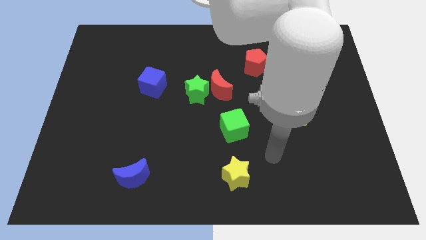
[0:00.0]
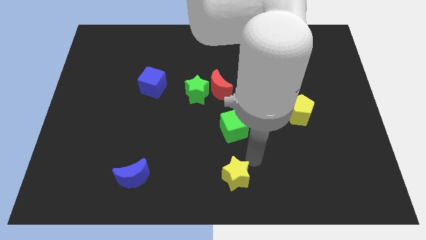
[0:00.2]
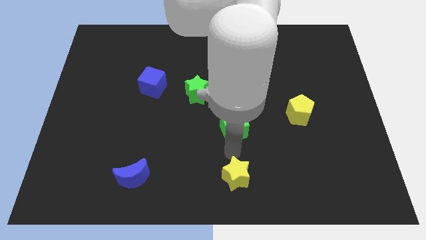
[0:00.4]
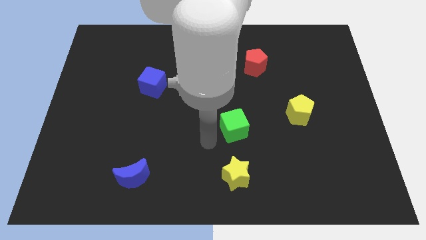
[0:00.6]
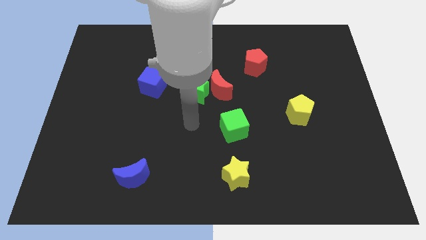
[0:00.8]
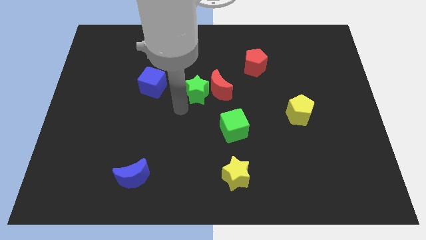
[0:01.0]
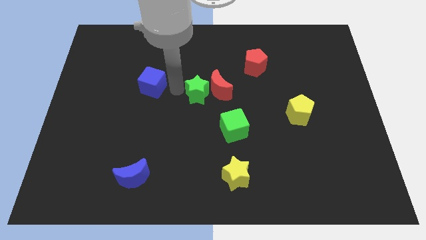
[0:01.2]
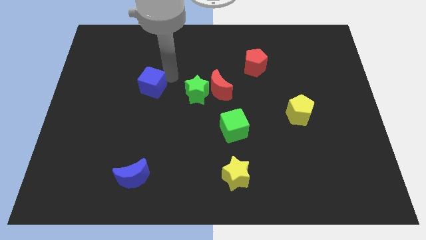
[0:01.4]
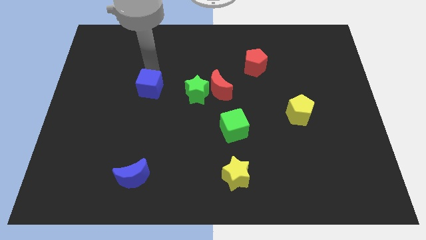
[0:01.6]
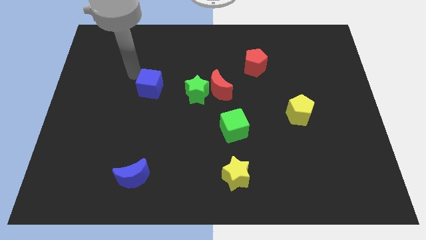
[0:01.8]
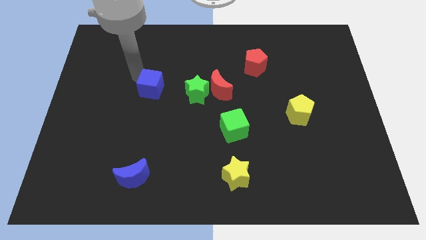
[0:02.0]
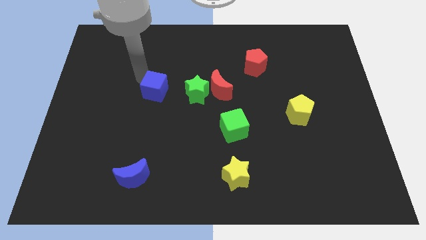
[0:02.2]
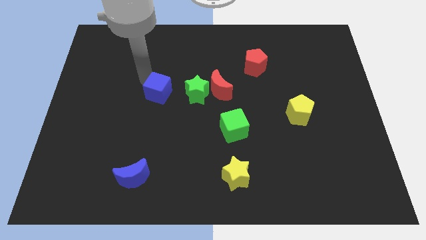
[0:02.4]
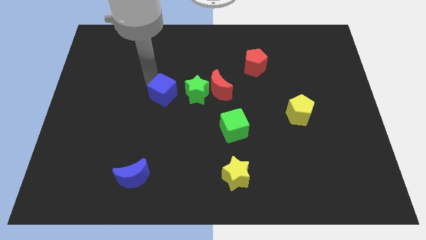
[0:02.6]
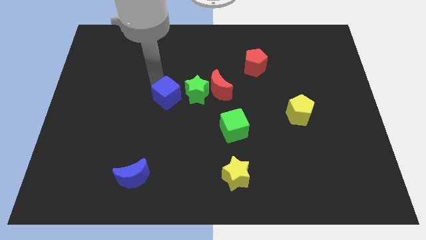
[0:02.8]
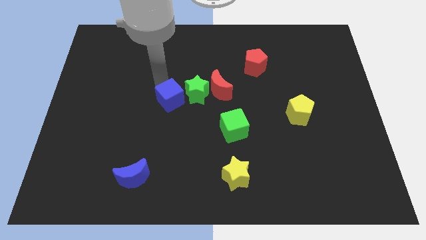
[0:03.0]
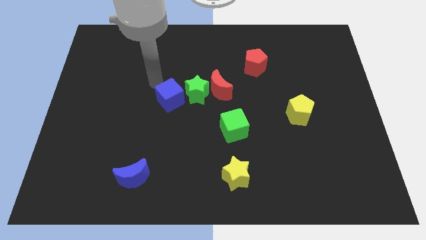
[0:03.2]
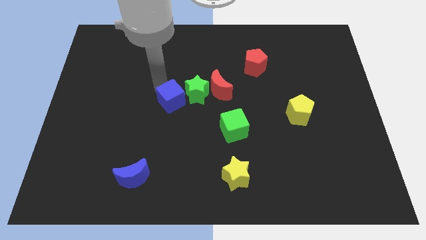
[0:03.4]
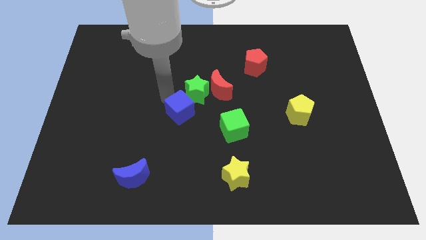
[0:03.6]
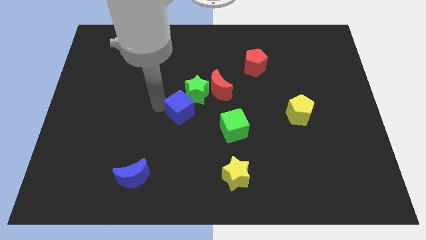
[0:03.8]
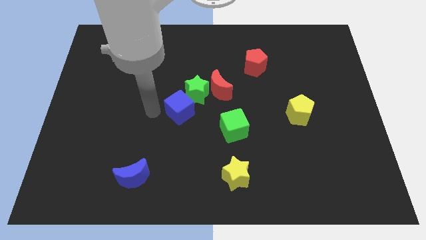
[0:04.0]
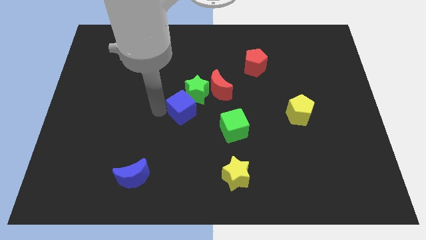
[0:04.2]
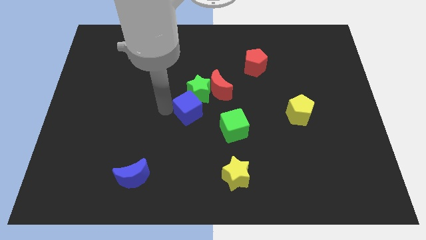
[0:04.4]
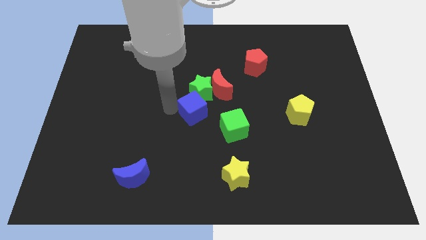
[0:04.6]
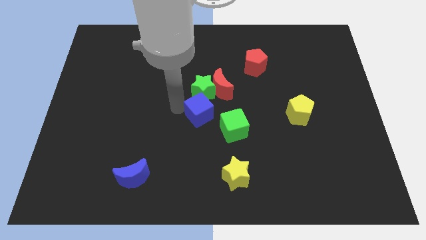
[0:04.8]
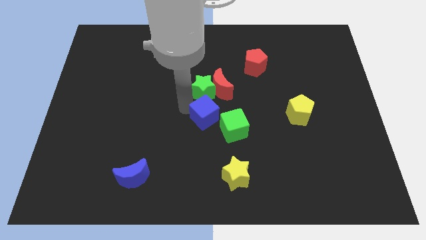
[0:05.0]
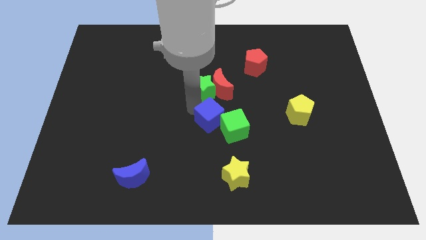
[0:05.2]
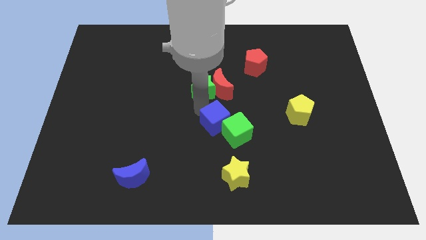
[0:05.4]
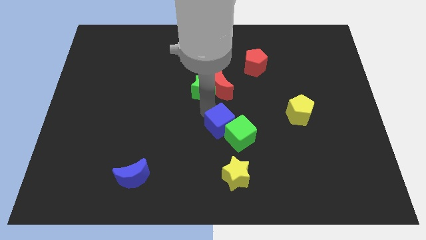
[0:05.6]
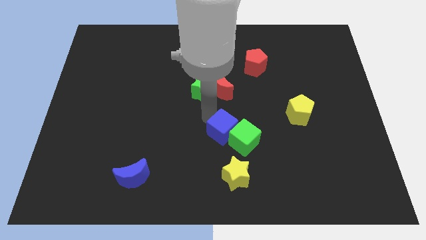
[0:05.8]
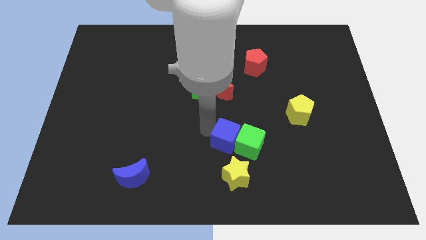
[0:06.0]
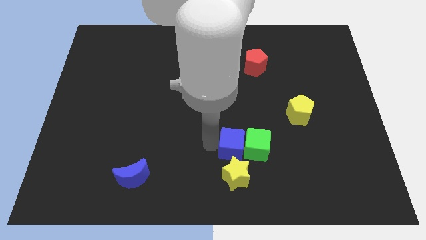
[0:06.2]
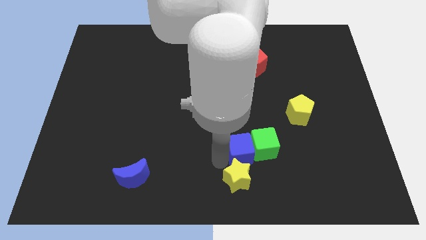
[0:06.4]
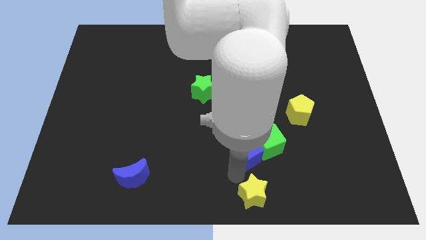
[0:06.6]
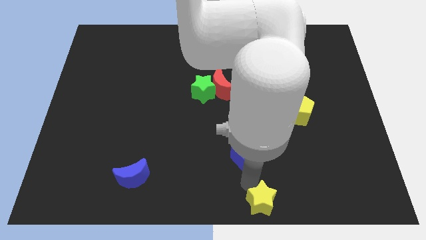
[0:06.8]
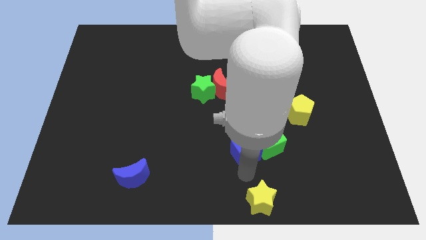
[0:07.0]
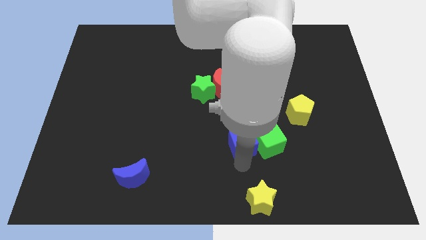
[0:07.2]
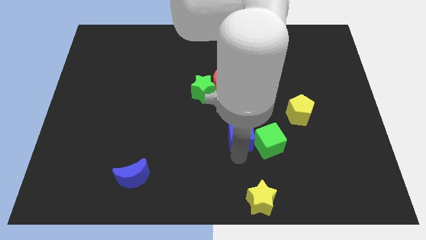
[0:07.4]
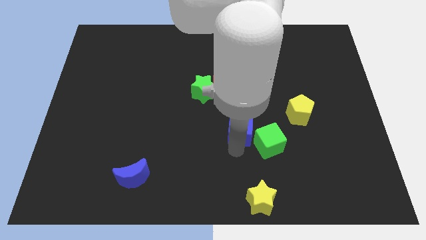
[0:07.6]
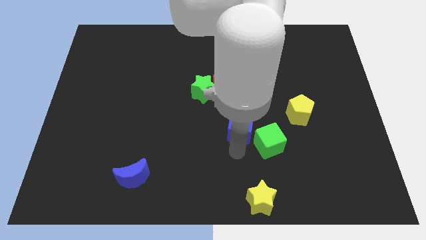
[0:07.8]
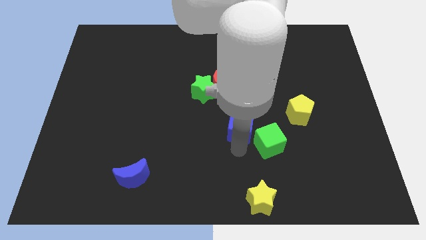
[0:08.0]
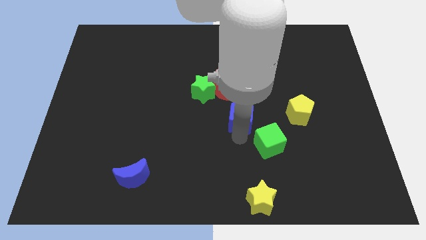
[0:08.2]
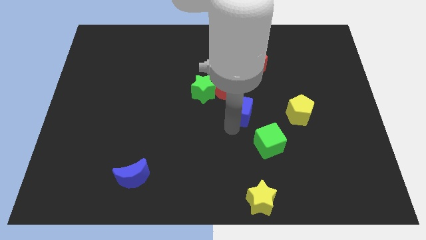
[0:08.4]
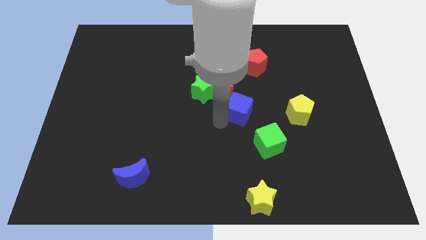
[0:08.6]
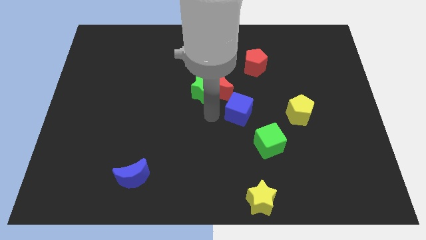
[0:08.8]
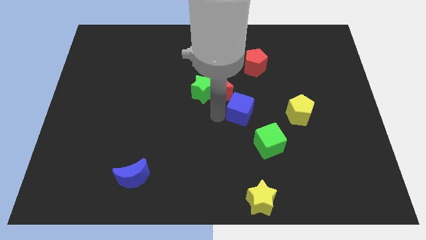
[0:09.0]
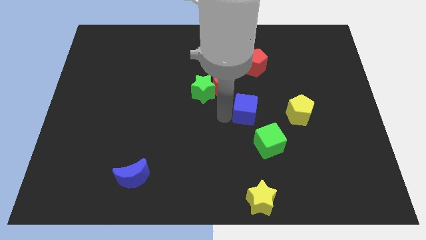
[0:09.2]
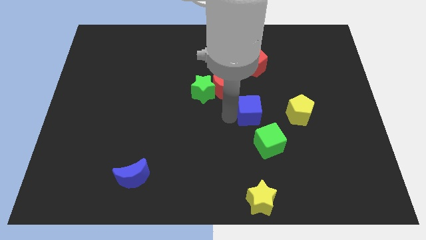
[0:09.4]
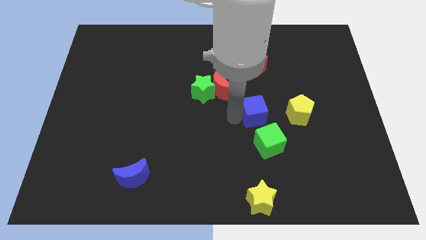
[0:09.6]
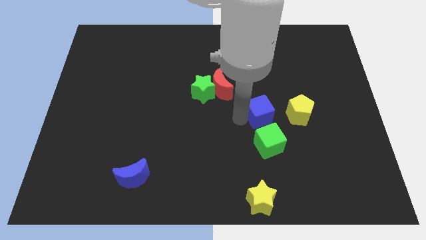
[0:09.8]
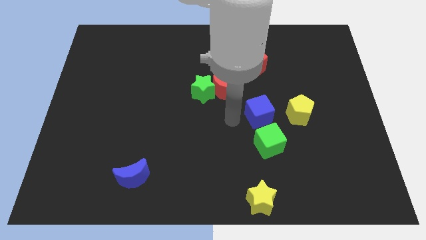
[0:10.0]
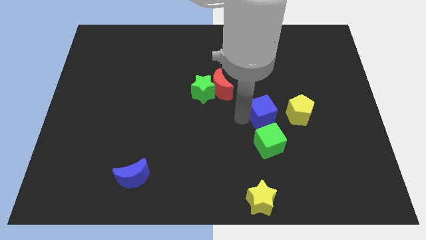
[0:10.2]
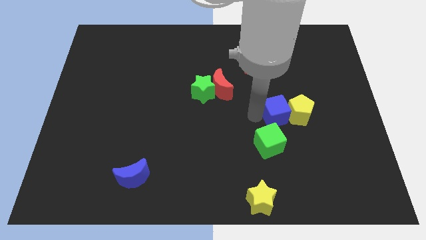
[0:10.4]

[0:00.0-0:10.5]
slide the blue cube next to the yellow pentagon

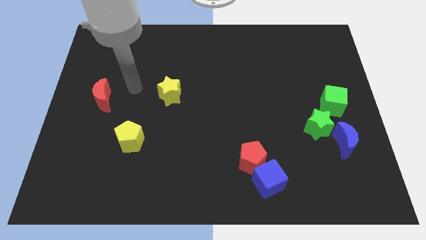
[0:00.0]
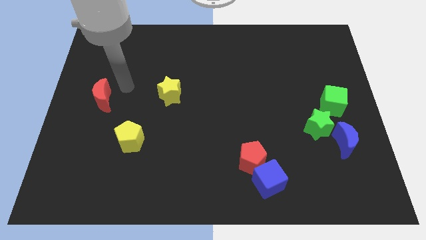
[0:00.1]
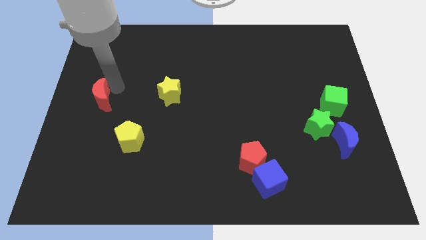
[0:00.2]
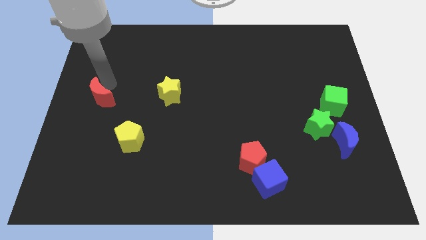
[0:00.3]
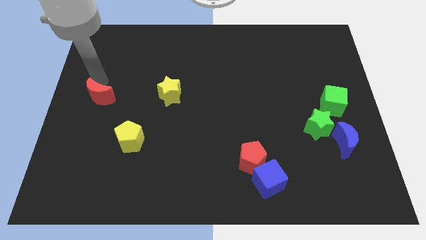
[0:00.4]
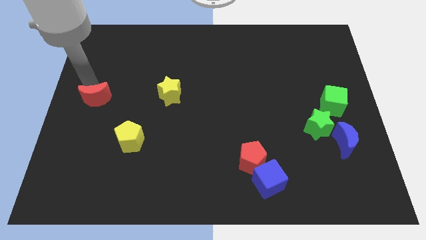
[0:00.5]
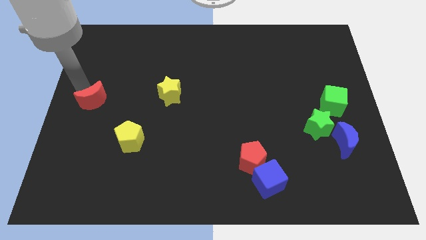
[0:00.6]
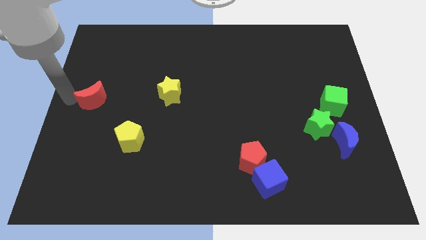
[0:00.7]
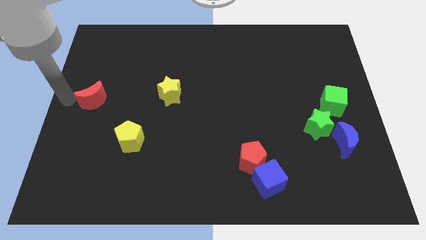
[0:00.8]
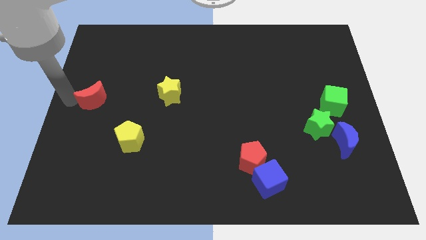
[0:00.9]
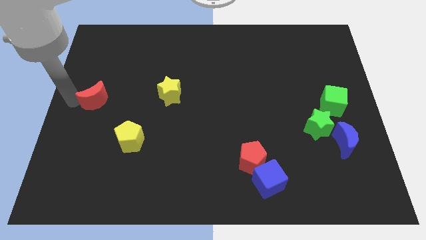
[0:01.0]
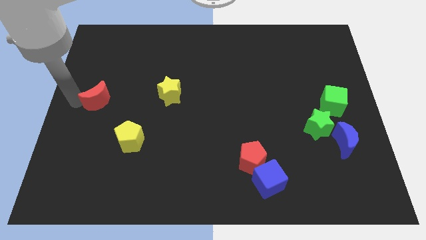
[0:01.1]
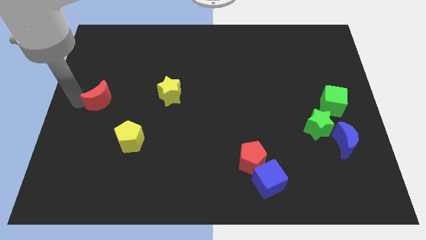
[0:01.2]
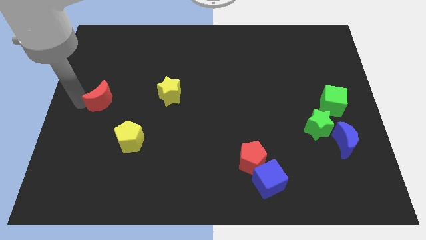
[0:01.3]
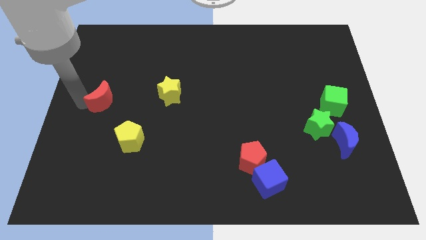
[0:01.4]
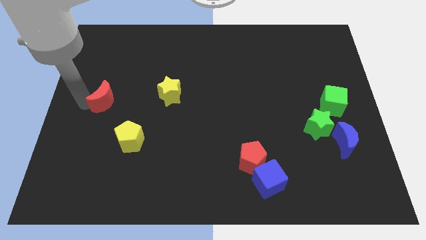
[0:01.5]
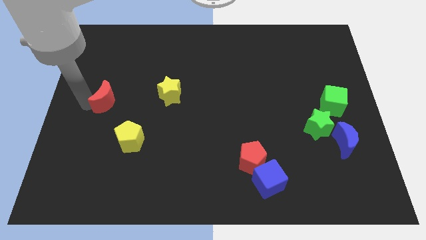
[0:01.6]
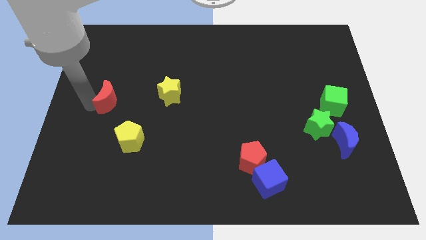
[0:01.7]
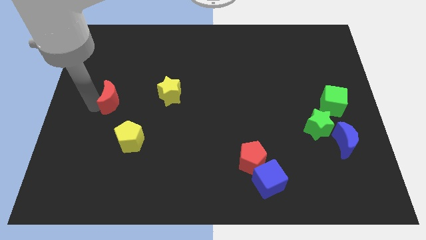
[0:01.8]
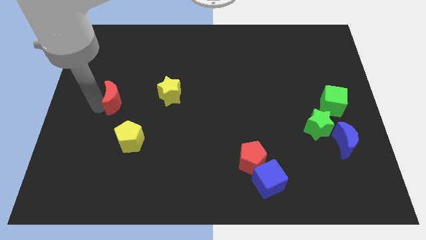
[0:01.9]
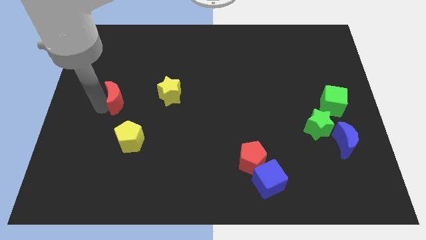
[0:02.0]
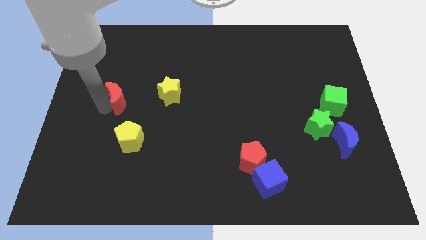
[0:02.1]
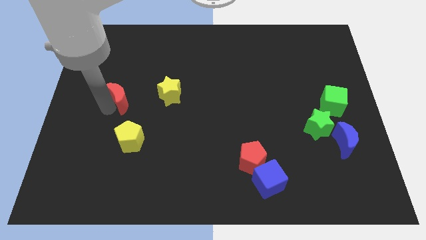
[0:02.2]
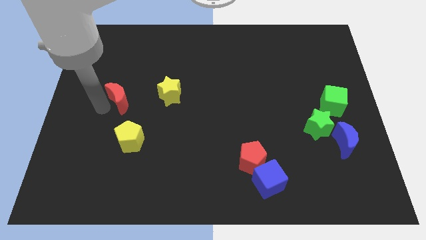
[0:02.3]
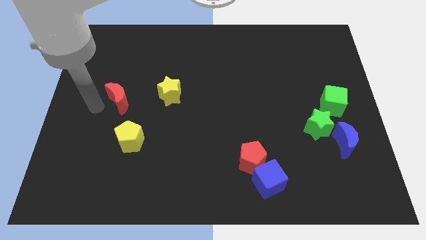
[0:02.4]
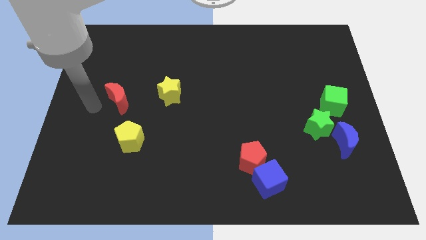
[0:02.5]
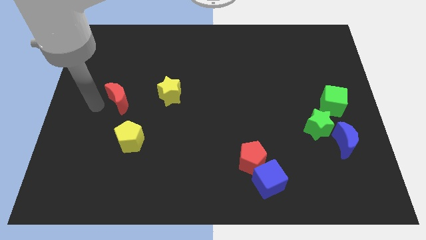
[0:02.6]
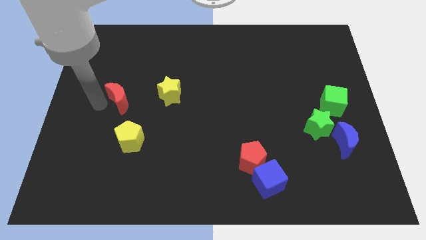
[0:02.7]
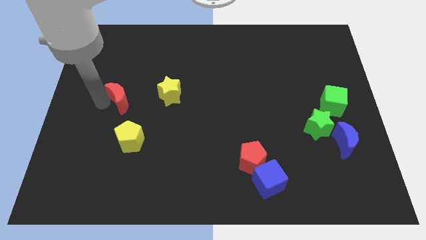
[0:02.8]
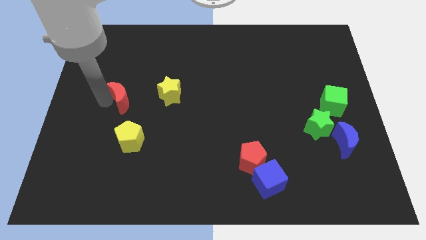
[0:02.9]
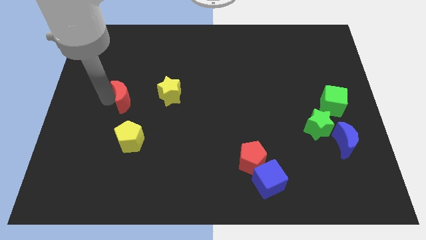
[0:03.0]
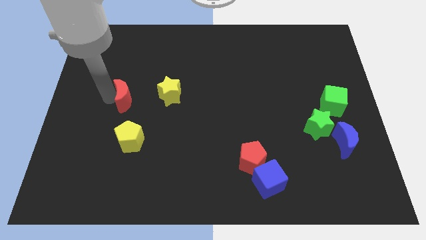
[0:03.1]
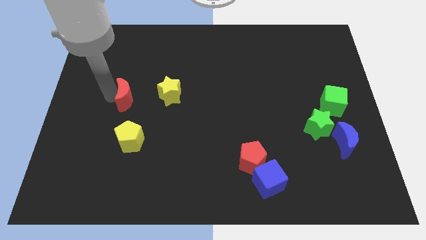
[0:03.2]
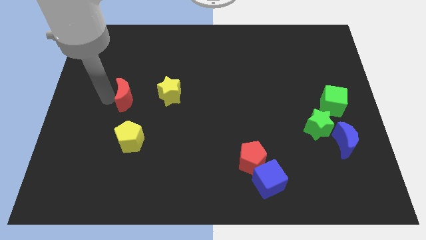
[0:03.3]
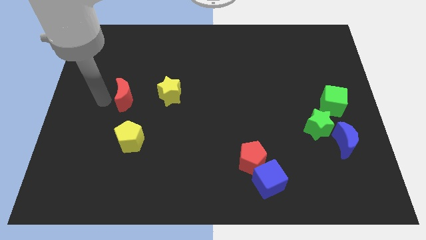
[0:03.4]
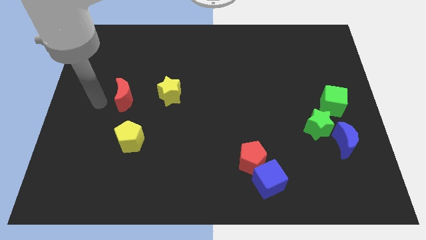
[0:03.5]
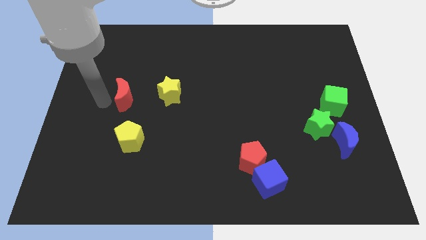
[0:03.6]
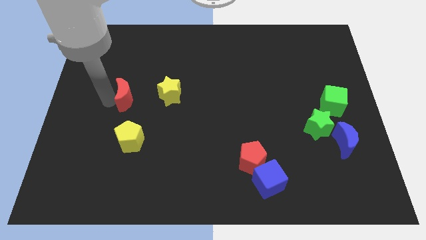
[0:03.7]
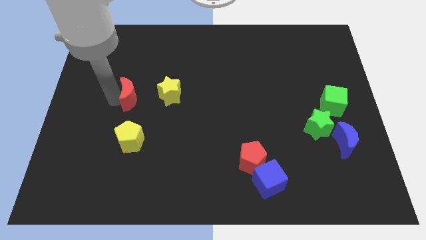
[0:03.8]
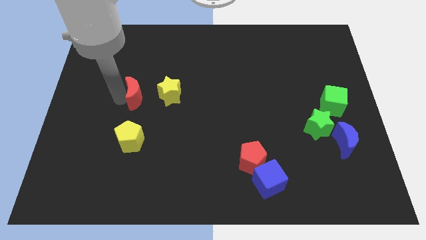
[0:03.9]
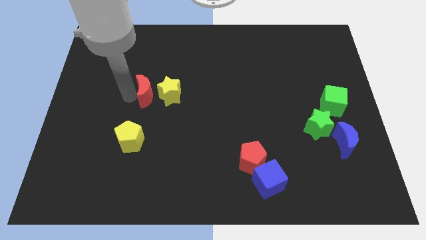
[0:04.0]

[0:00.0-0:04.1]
put the red moon to the yellow star
